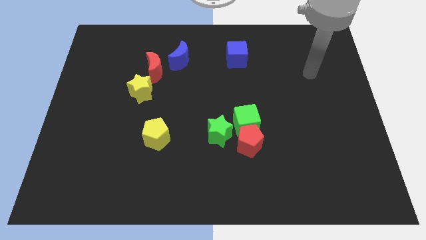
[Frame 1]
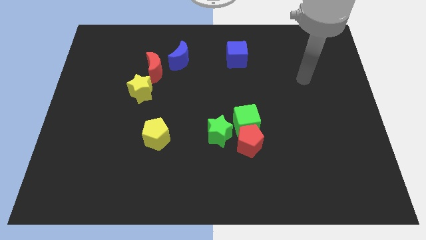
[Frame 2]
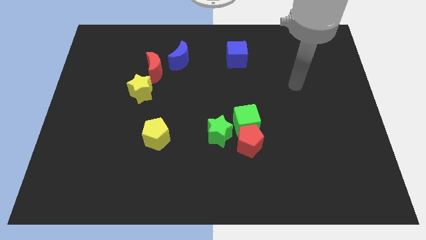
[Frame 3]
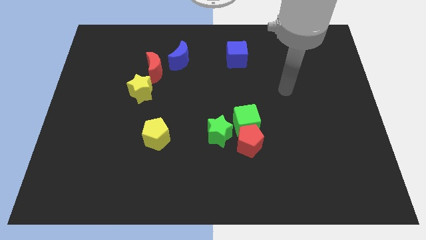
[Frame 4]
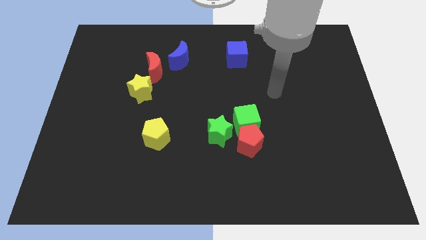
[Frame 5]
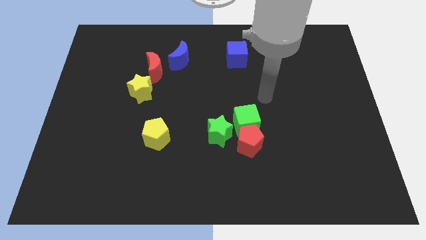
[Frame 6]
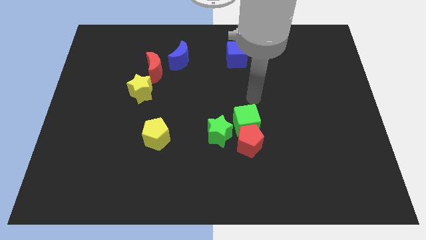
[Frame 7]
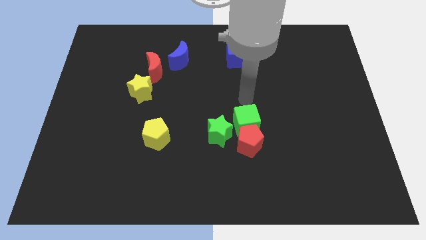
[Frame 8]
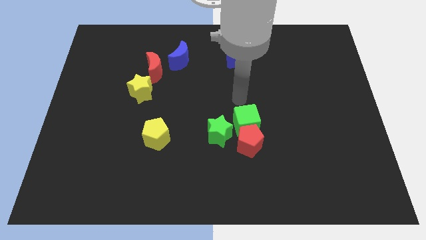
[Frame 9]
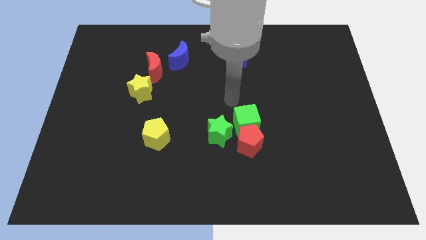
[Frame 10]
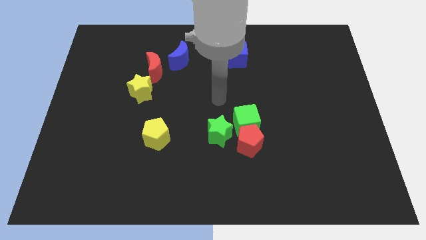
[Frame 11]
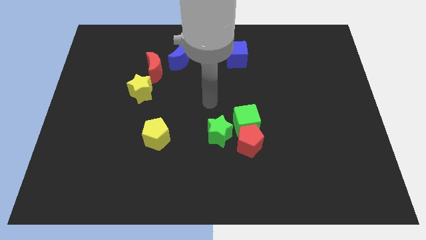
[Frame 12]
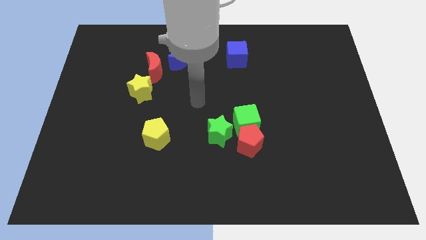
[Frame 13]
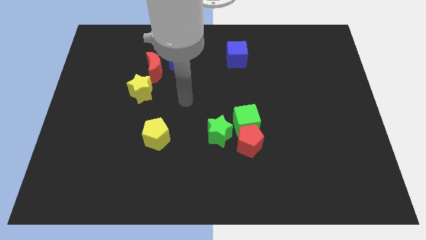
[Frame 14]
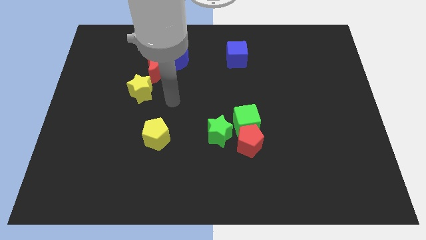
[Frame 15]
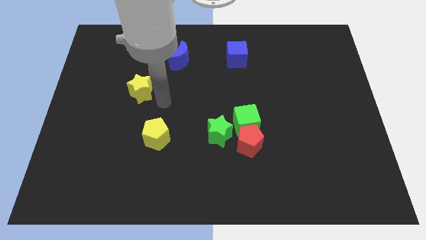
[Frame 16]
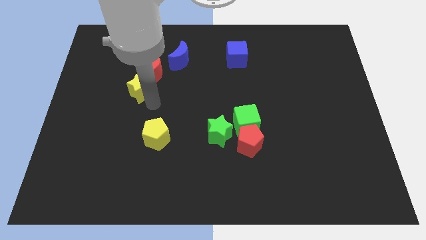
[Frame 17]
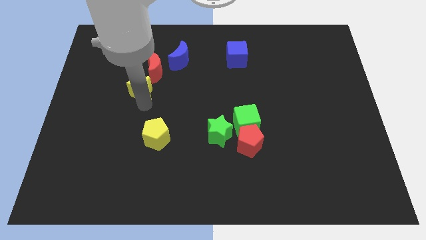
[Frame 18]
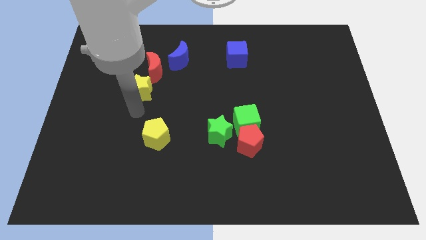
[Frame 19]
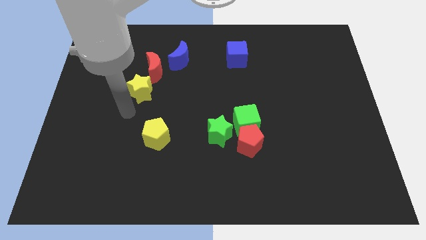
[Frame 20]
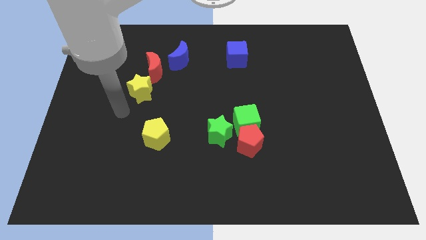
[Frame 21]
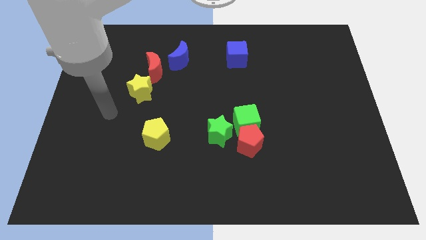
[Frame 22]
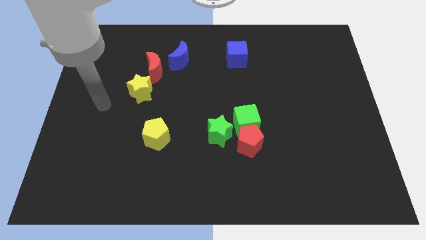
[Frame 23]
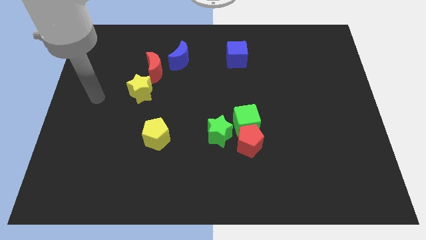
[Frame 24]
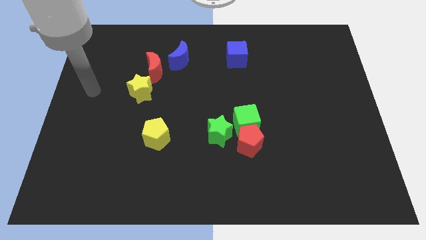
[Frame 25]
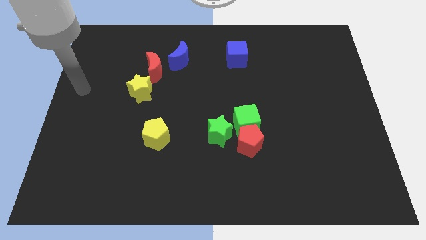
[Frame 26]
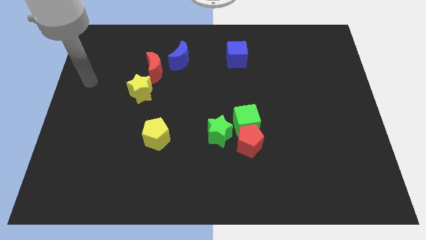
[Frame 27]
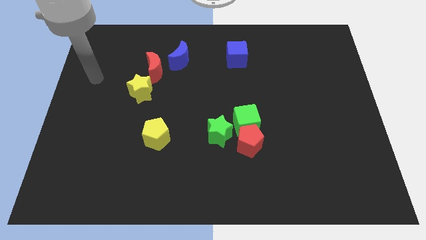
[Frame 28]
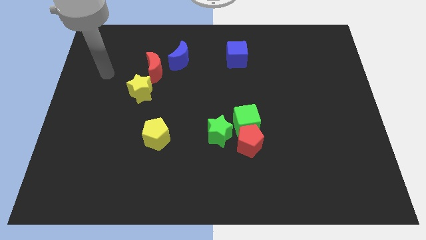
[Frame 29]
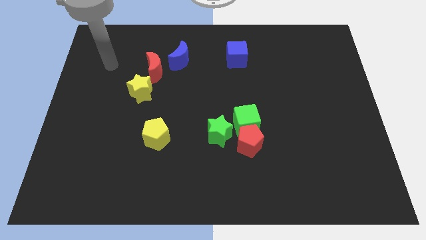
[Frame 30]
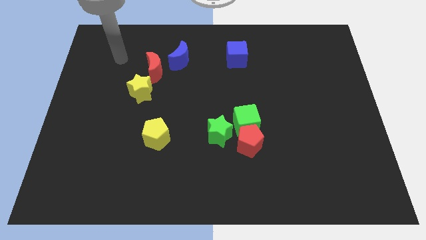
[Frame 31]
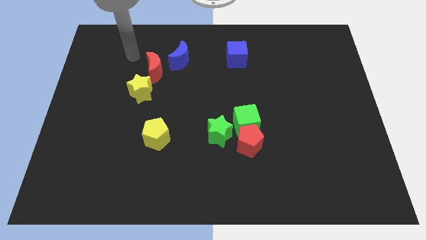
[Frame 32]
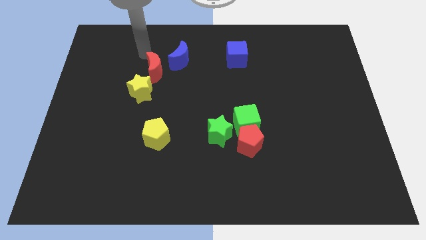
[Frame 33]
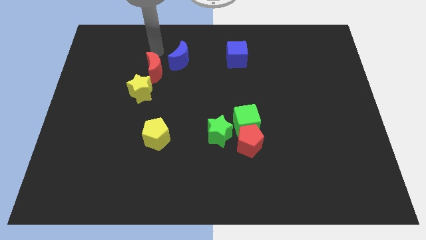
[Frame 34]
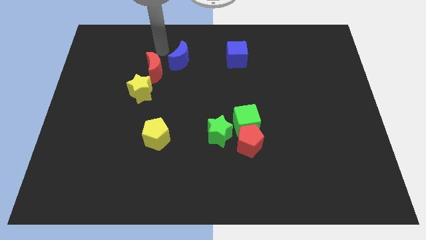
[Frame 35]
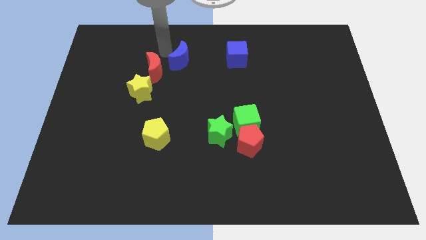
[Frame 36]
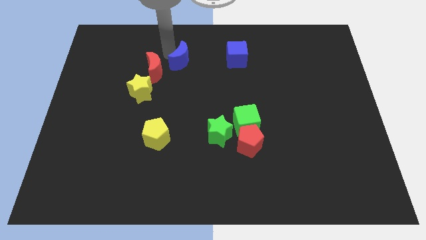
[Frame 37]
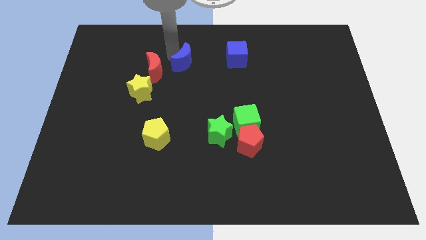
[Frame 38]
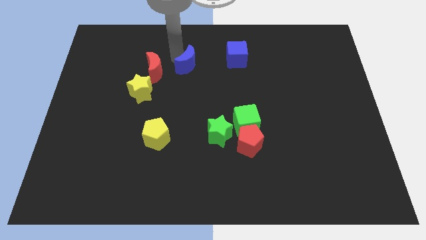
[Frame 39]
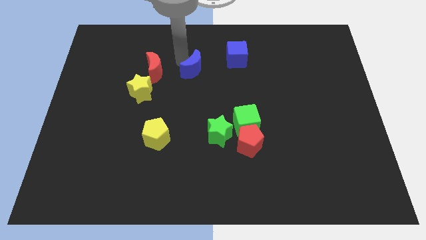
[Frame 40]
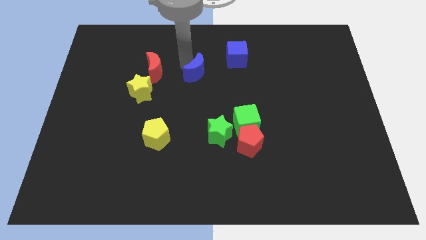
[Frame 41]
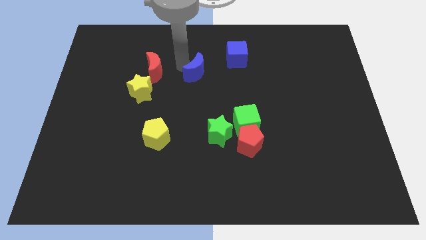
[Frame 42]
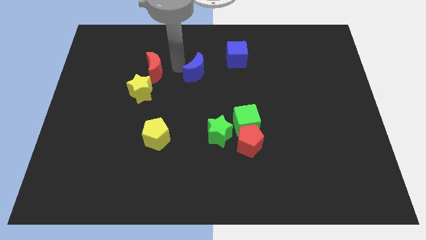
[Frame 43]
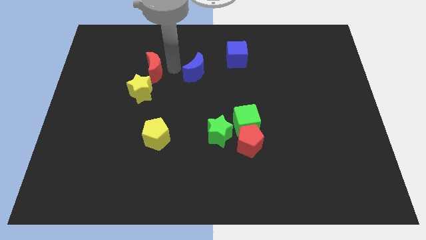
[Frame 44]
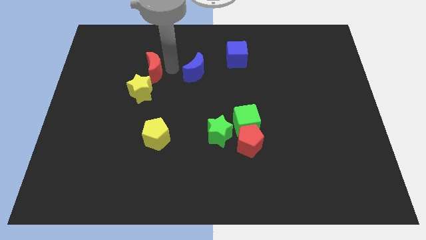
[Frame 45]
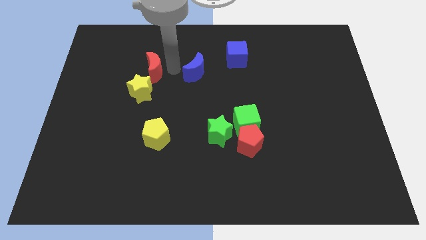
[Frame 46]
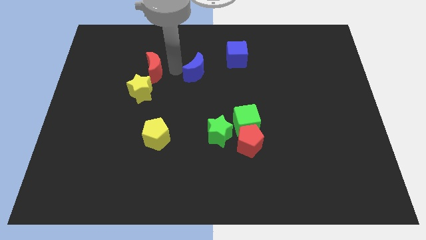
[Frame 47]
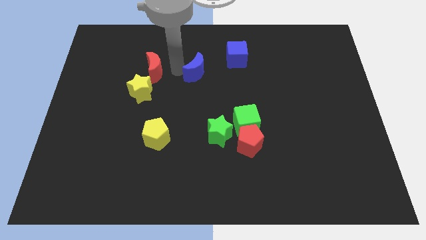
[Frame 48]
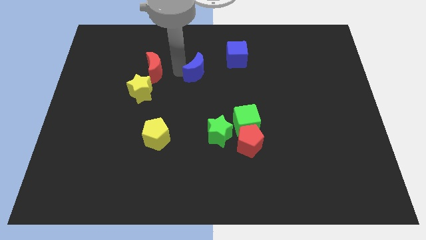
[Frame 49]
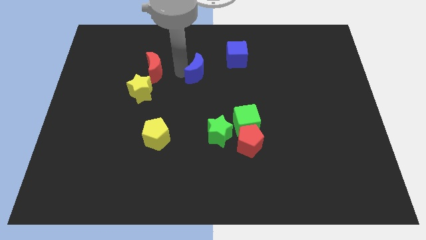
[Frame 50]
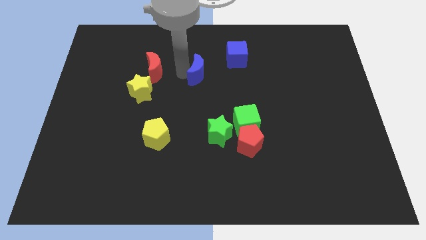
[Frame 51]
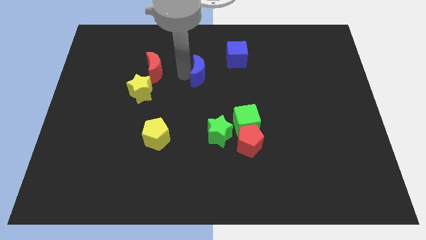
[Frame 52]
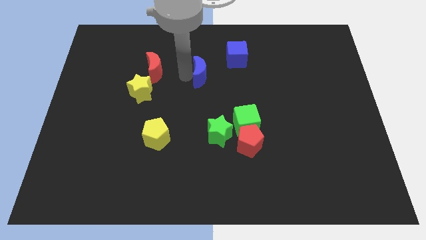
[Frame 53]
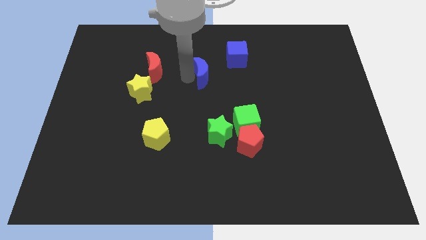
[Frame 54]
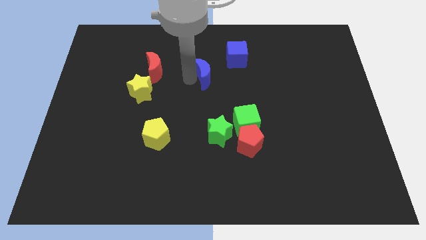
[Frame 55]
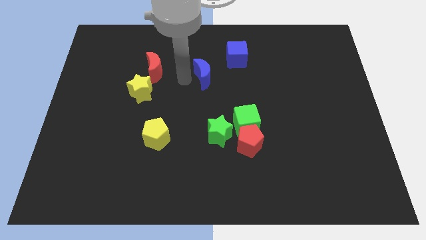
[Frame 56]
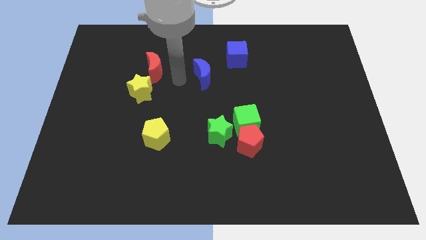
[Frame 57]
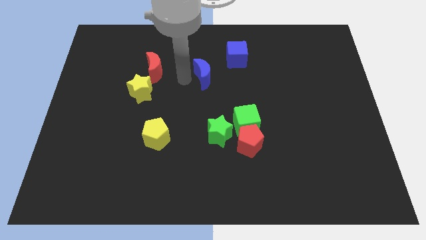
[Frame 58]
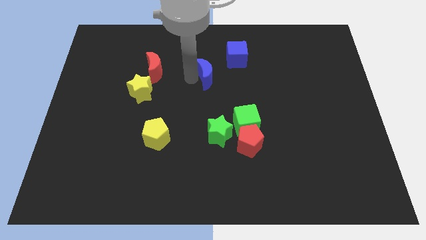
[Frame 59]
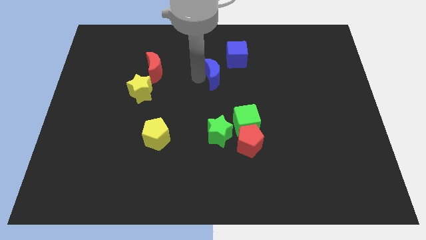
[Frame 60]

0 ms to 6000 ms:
slightly move the blue moon right

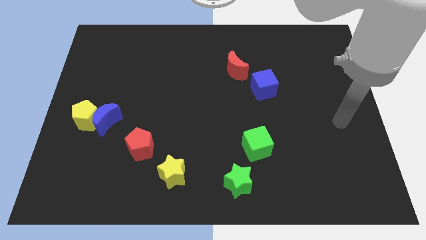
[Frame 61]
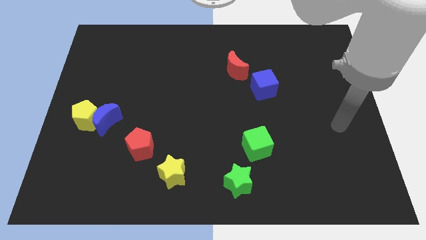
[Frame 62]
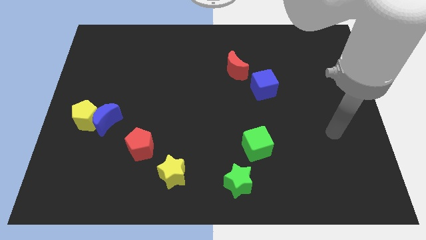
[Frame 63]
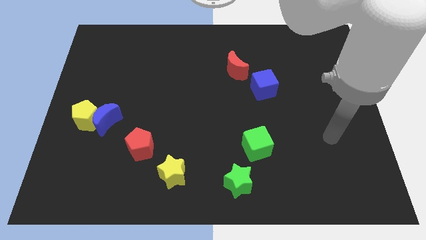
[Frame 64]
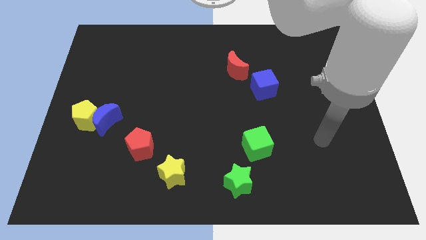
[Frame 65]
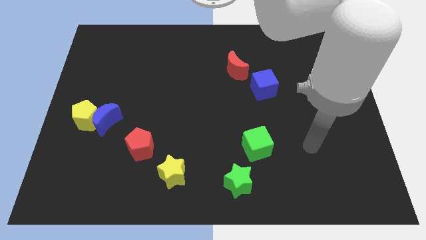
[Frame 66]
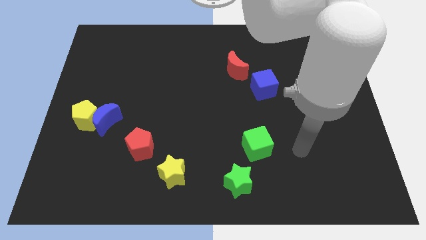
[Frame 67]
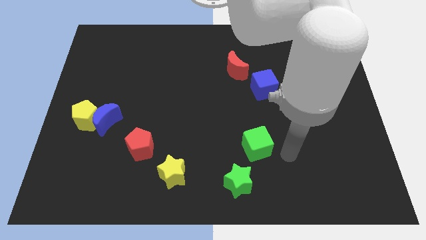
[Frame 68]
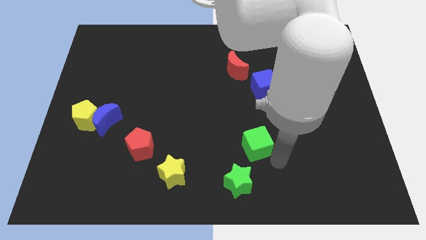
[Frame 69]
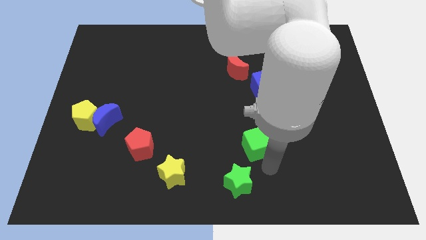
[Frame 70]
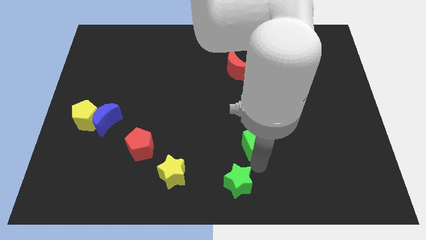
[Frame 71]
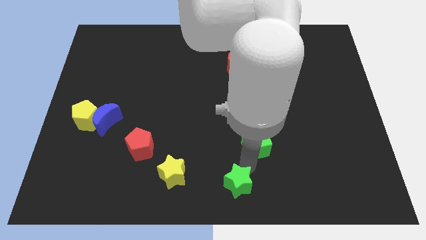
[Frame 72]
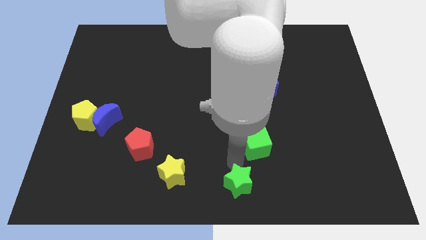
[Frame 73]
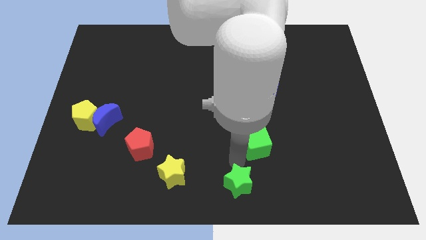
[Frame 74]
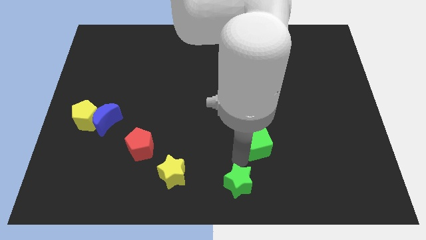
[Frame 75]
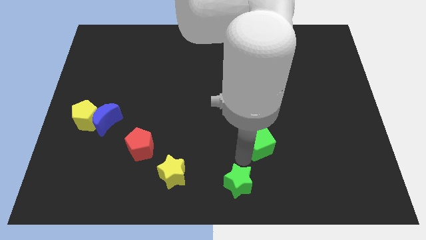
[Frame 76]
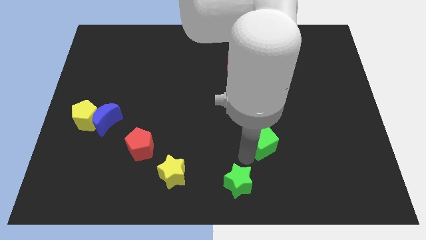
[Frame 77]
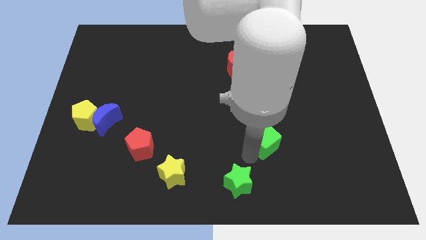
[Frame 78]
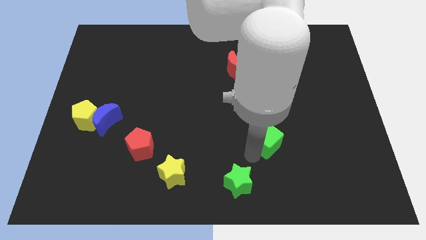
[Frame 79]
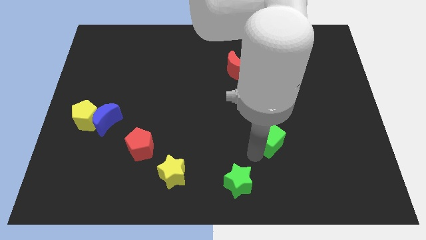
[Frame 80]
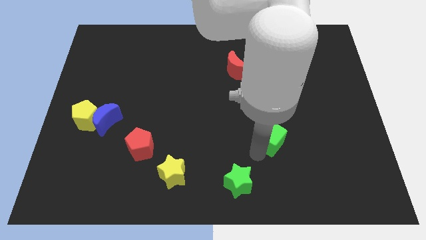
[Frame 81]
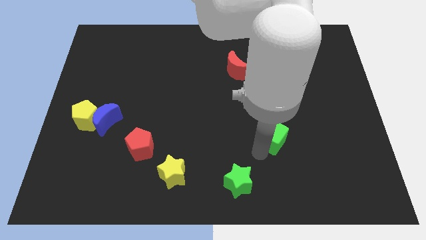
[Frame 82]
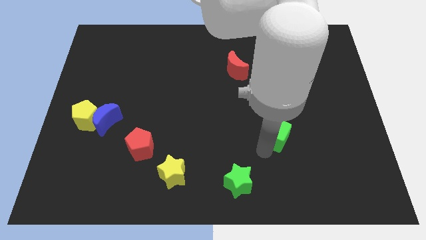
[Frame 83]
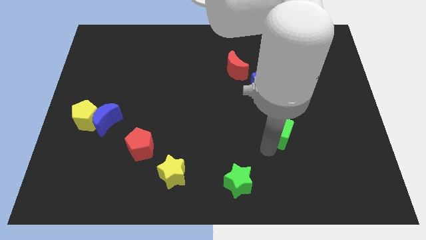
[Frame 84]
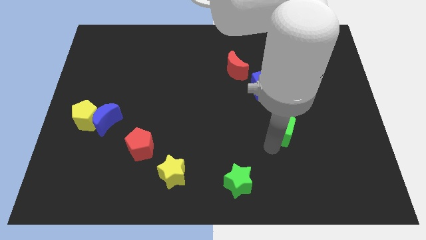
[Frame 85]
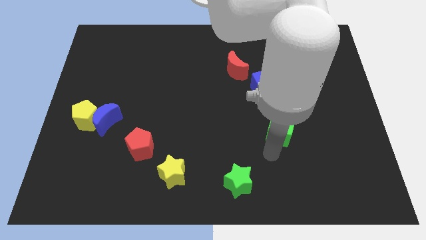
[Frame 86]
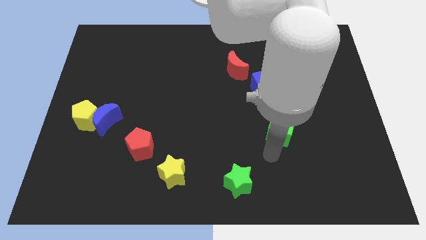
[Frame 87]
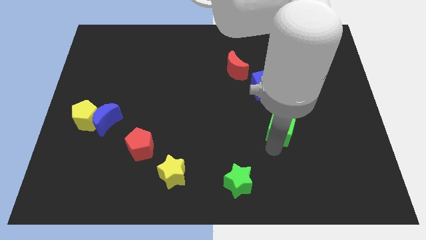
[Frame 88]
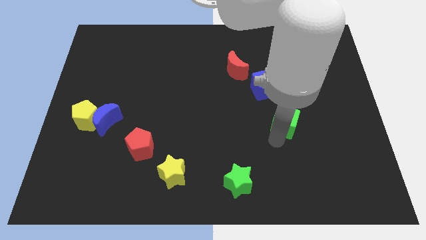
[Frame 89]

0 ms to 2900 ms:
move the green cube diagonally up and to the right somewhat
